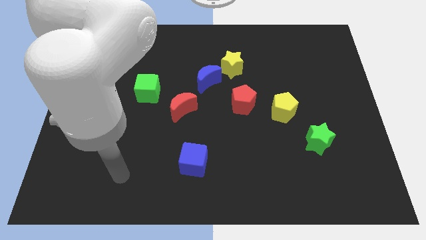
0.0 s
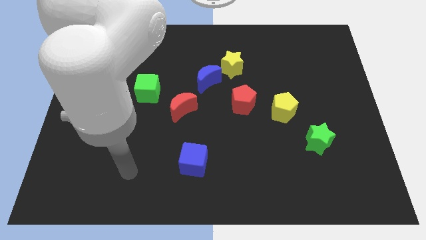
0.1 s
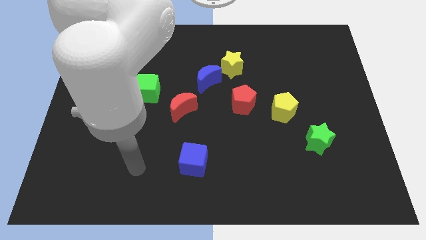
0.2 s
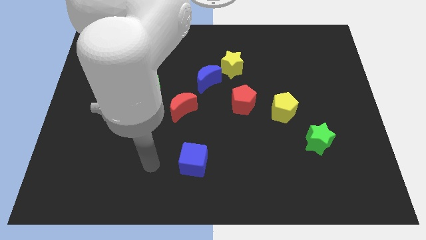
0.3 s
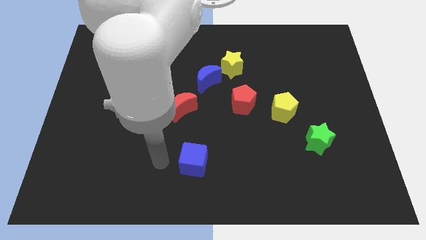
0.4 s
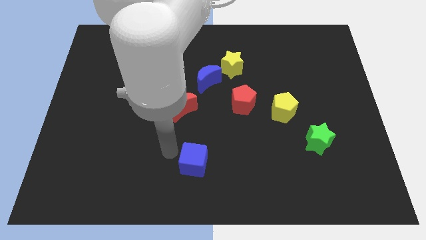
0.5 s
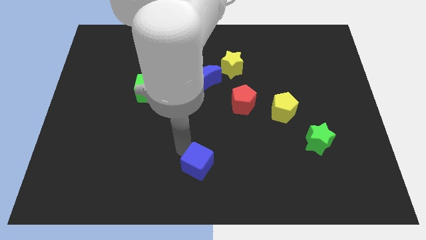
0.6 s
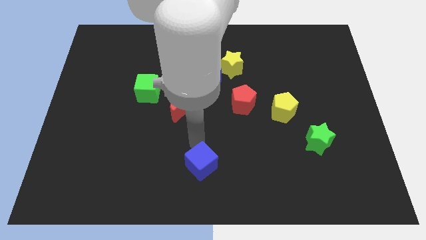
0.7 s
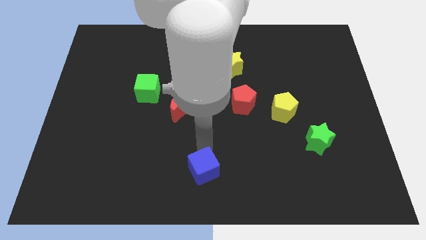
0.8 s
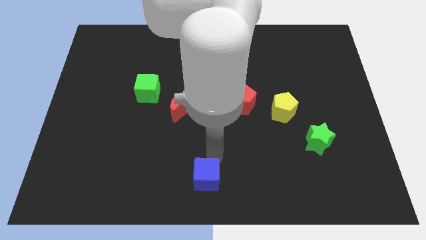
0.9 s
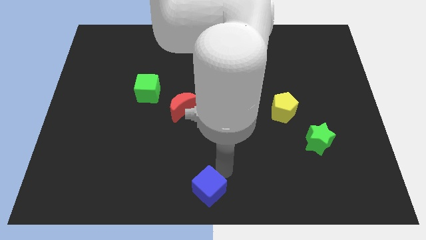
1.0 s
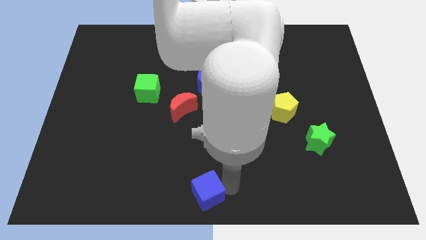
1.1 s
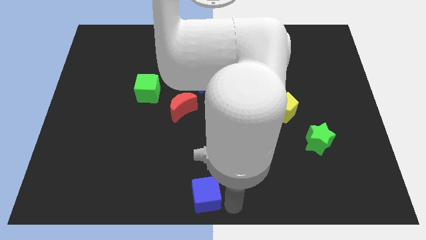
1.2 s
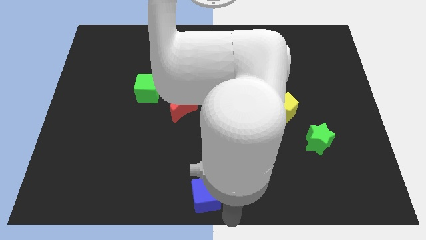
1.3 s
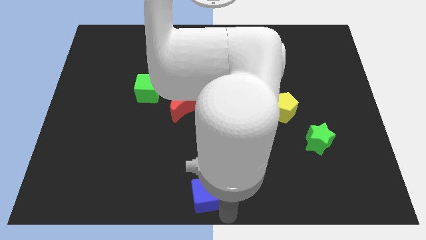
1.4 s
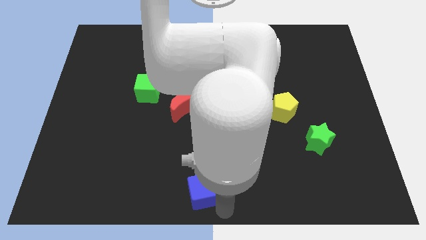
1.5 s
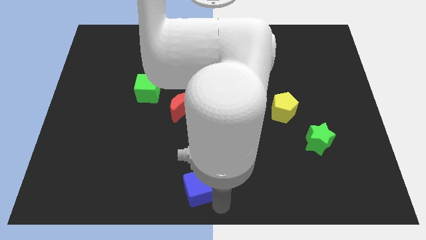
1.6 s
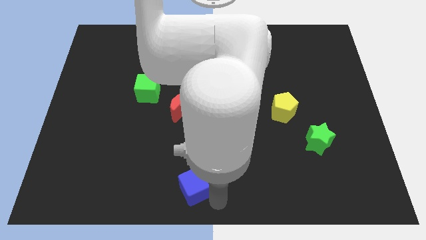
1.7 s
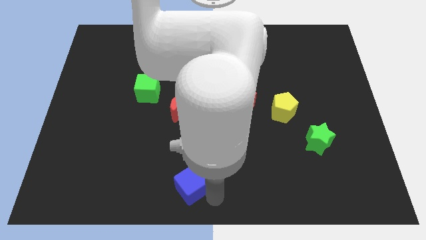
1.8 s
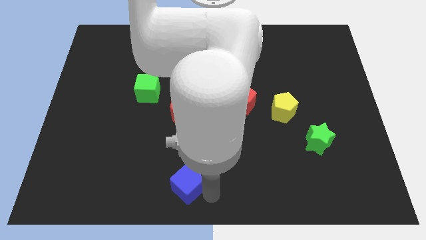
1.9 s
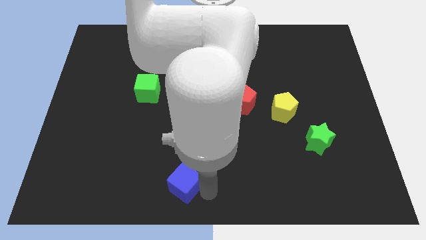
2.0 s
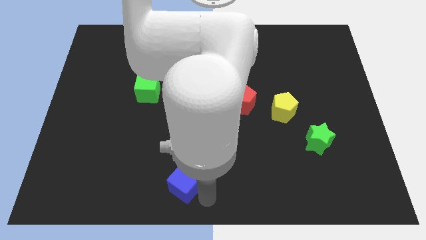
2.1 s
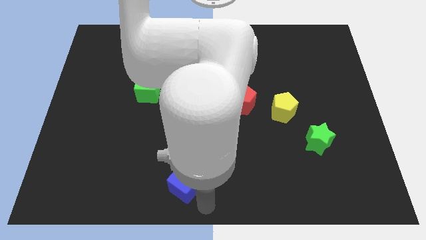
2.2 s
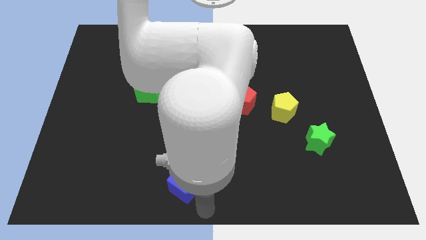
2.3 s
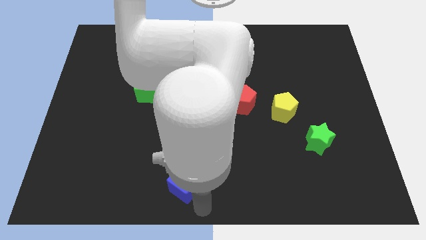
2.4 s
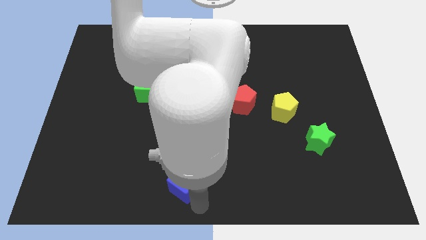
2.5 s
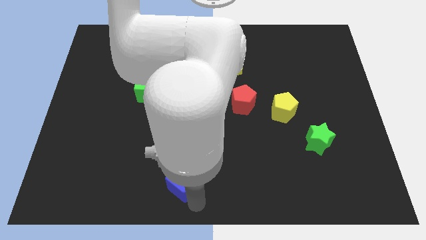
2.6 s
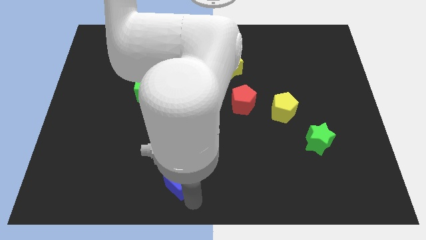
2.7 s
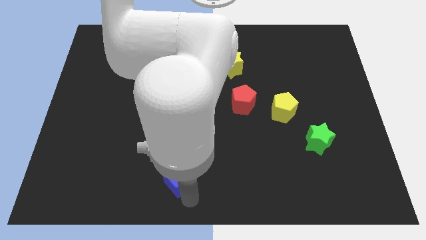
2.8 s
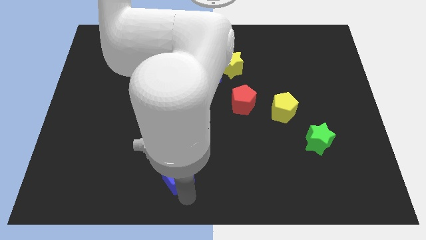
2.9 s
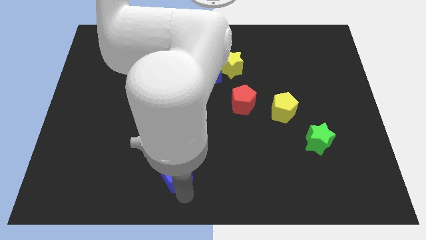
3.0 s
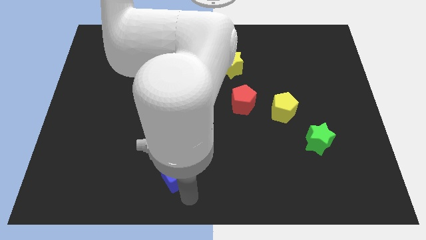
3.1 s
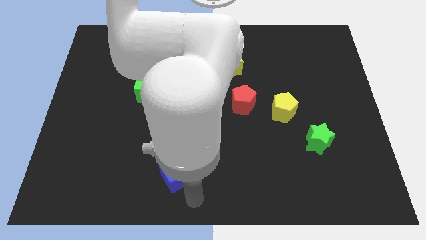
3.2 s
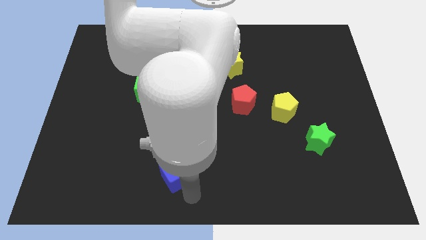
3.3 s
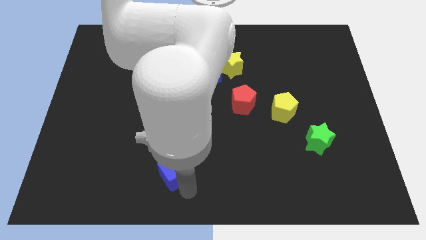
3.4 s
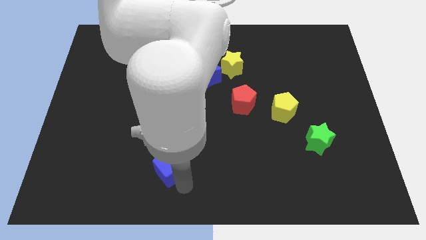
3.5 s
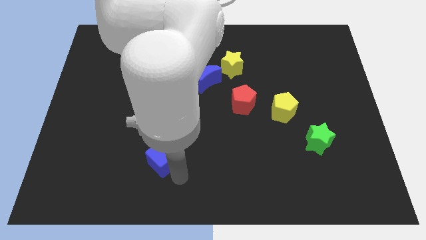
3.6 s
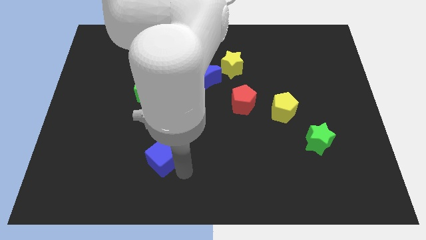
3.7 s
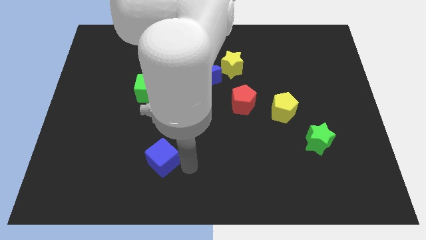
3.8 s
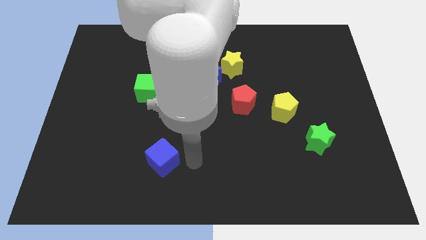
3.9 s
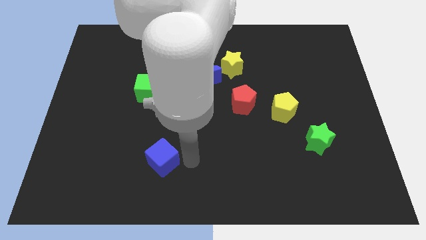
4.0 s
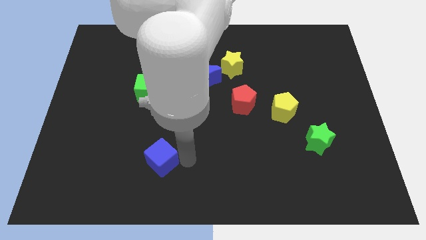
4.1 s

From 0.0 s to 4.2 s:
slide the blue cube a bit left

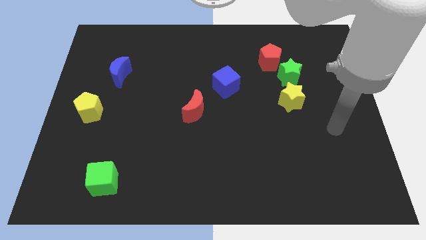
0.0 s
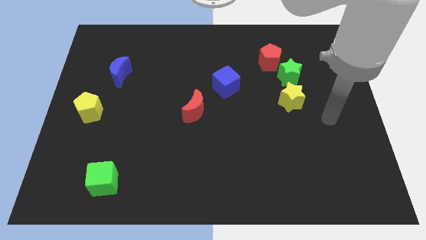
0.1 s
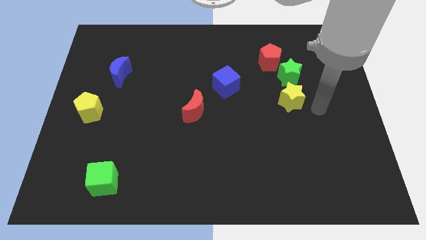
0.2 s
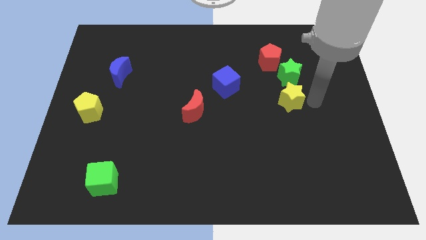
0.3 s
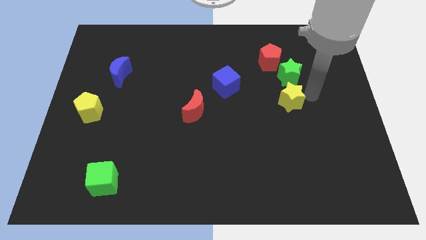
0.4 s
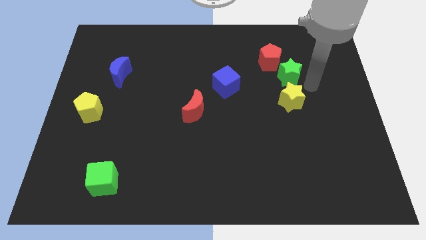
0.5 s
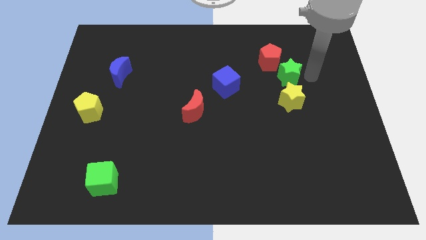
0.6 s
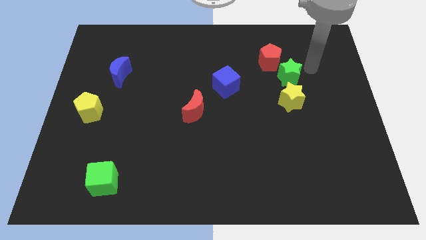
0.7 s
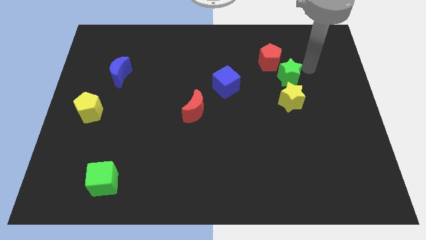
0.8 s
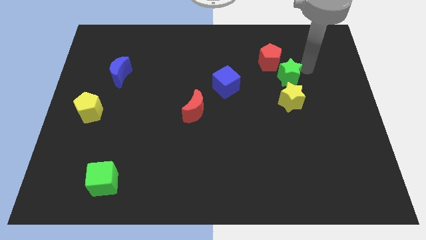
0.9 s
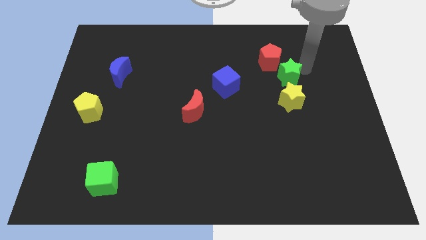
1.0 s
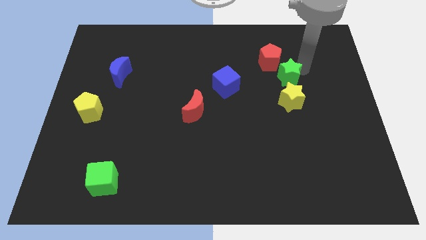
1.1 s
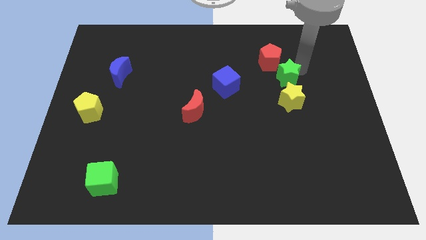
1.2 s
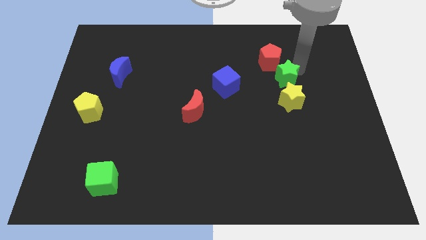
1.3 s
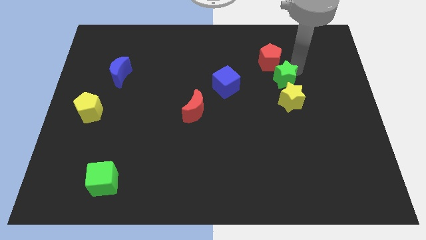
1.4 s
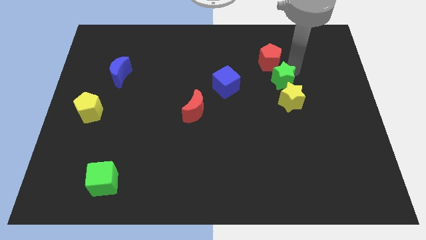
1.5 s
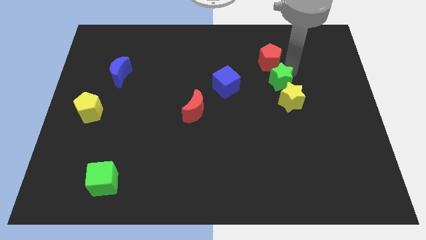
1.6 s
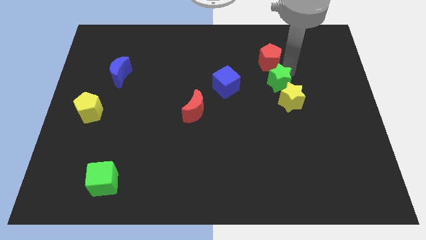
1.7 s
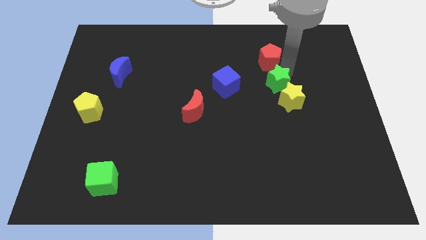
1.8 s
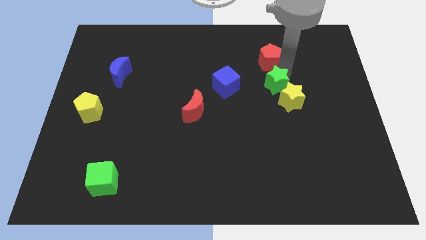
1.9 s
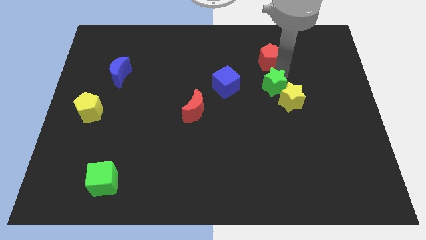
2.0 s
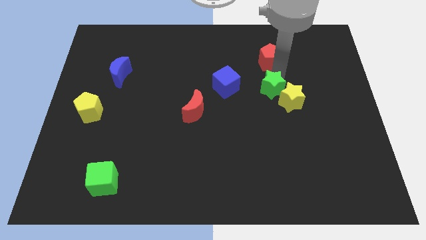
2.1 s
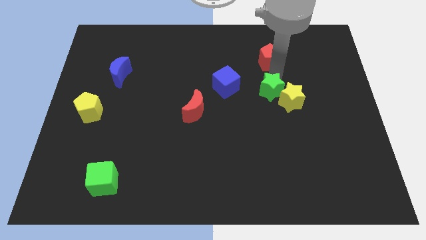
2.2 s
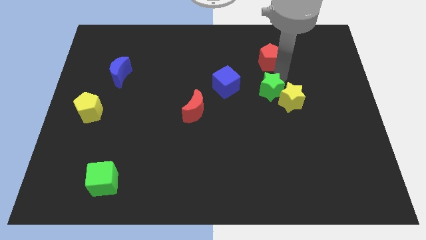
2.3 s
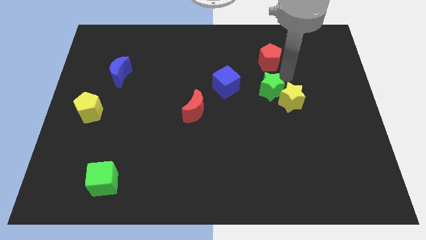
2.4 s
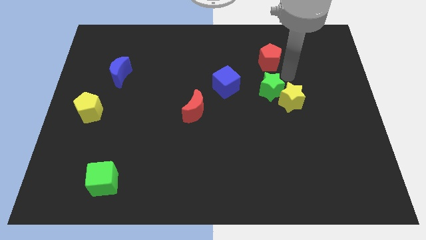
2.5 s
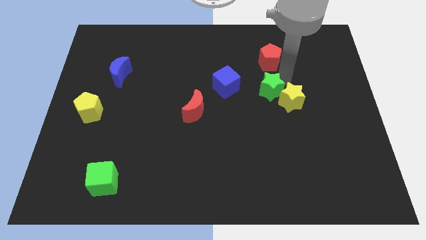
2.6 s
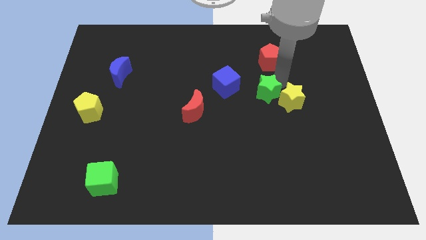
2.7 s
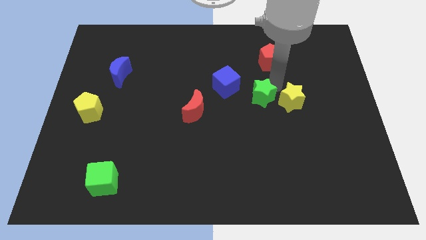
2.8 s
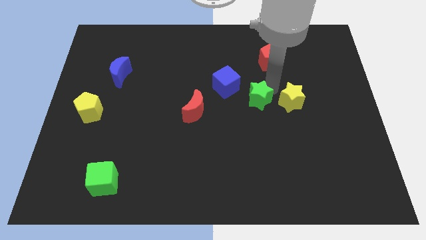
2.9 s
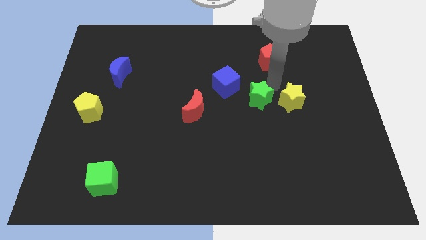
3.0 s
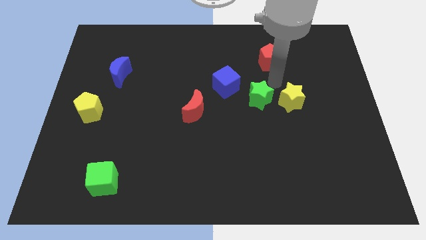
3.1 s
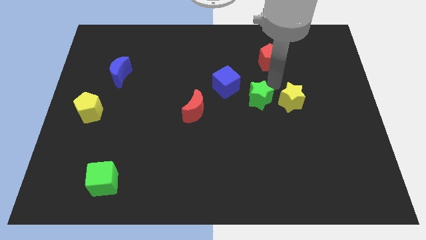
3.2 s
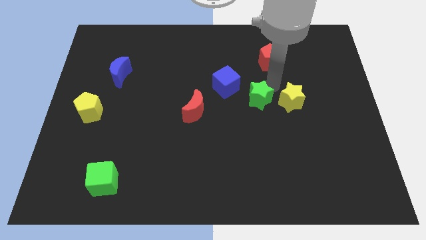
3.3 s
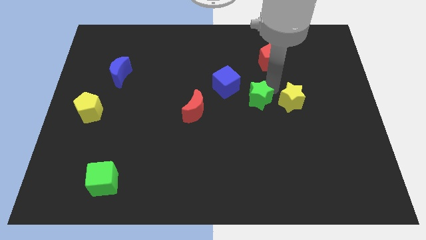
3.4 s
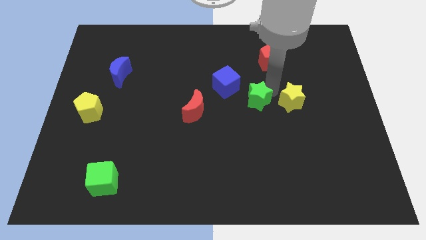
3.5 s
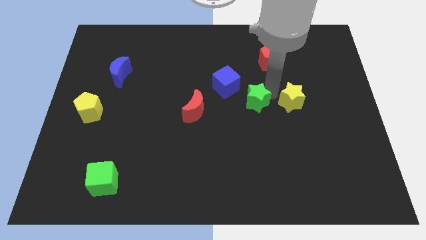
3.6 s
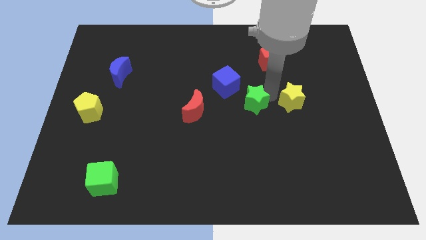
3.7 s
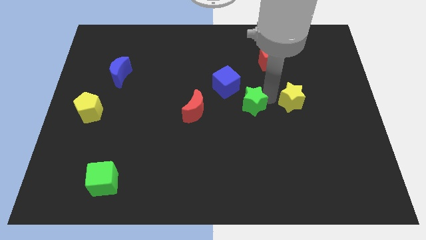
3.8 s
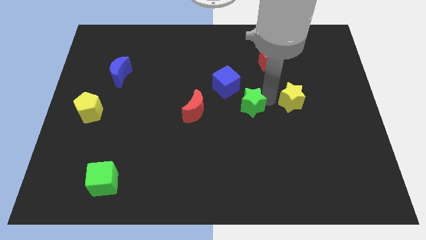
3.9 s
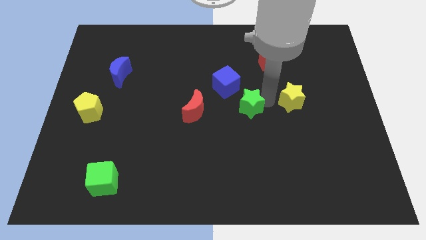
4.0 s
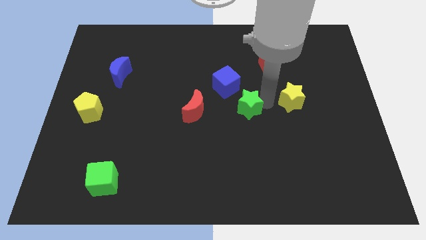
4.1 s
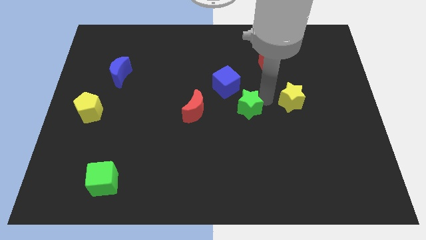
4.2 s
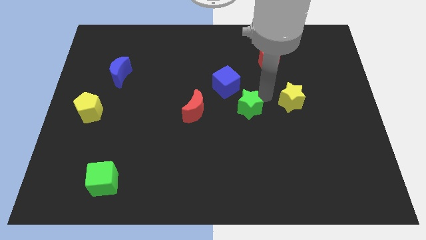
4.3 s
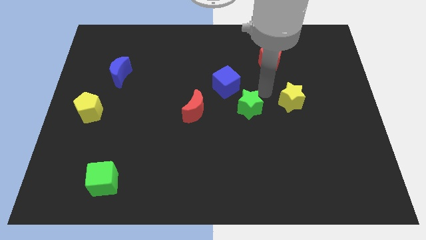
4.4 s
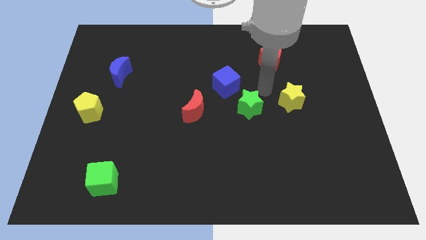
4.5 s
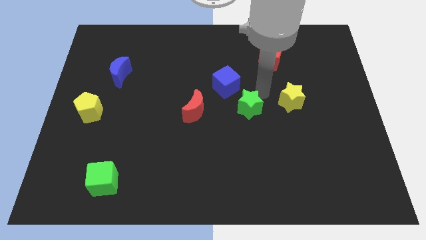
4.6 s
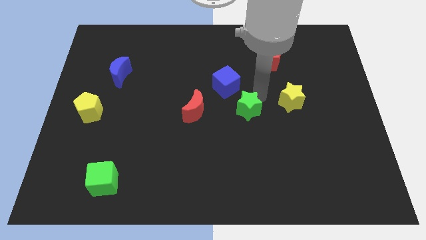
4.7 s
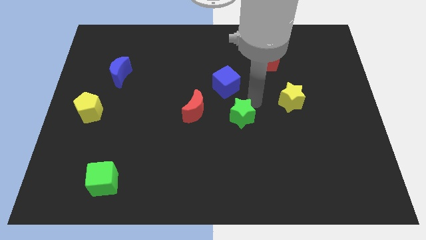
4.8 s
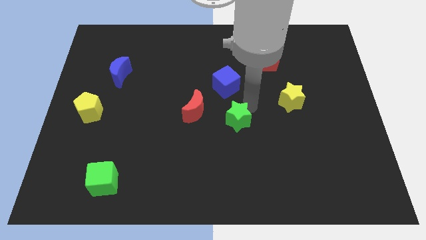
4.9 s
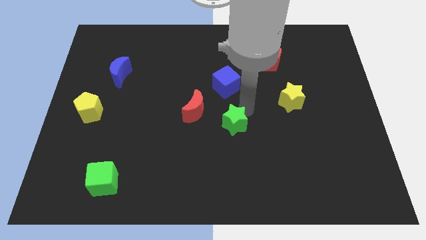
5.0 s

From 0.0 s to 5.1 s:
slide the green star downwards and to the left
